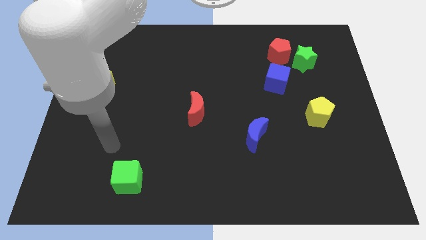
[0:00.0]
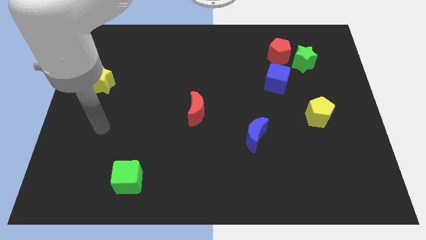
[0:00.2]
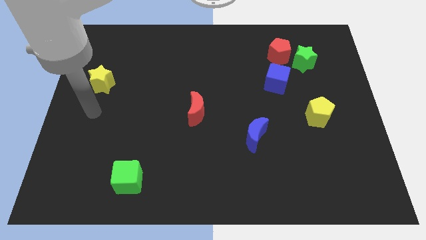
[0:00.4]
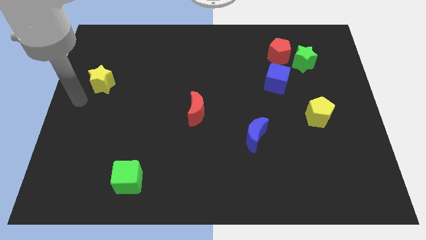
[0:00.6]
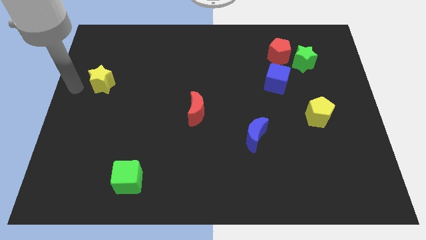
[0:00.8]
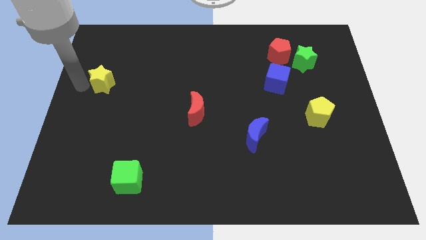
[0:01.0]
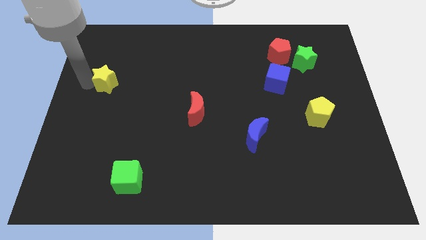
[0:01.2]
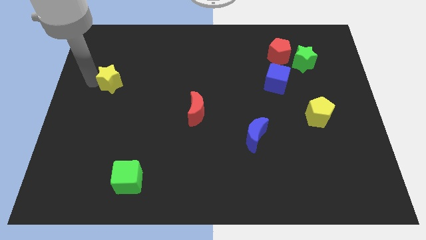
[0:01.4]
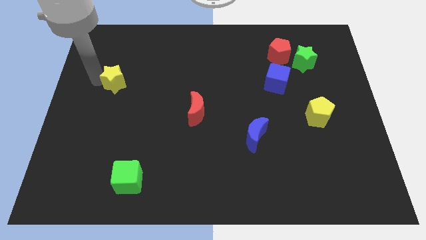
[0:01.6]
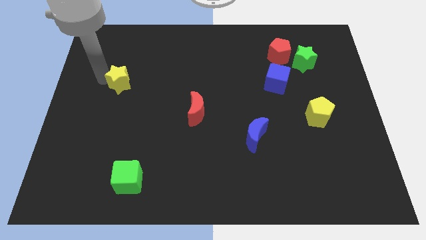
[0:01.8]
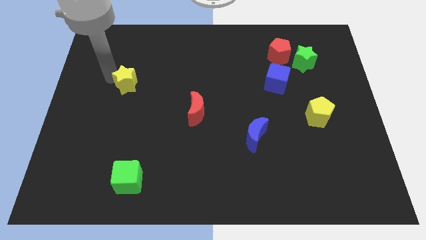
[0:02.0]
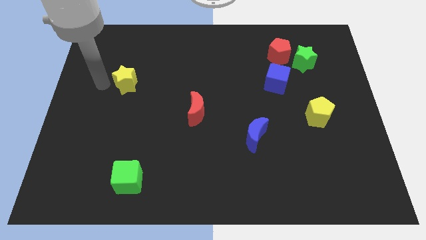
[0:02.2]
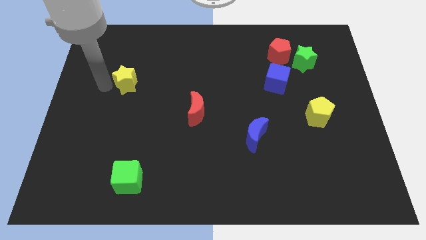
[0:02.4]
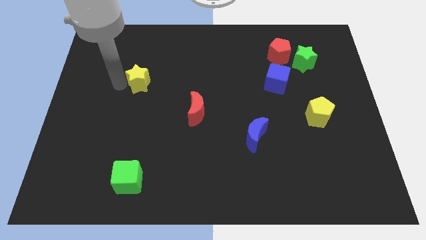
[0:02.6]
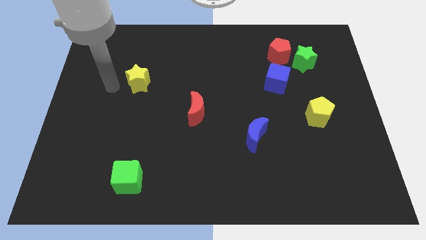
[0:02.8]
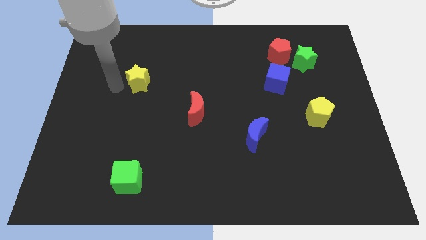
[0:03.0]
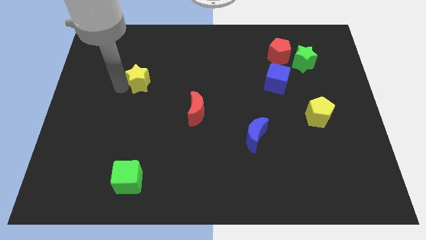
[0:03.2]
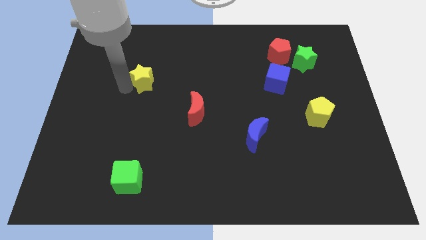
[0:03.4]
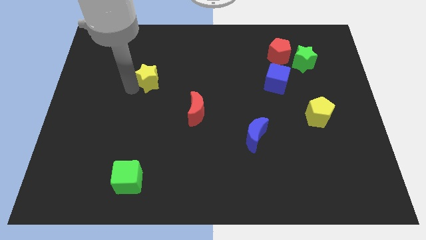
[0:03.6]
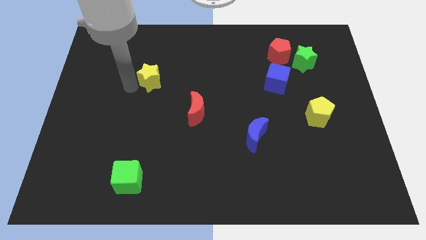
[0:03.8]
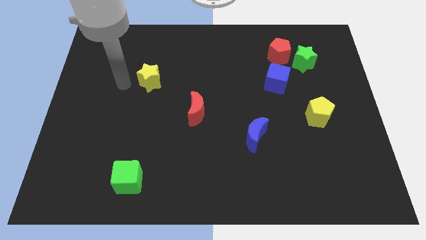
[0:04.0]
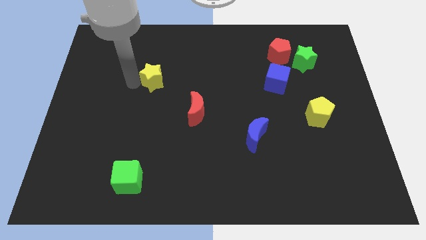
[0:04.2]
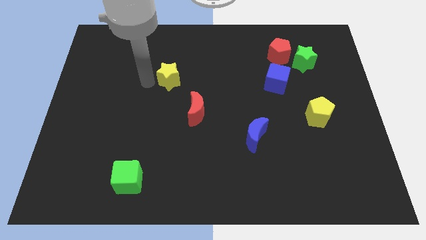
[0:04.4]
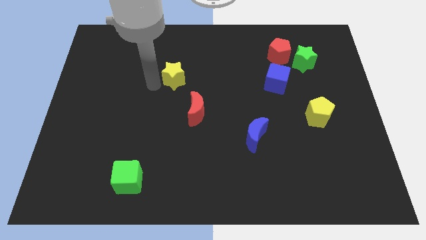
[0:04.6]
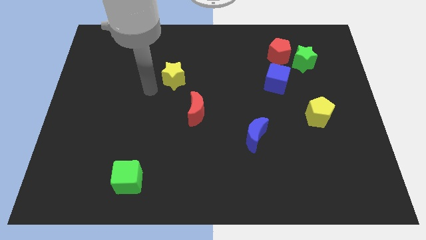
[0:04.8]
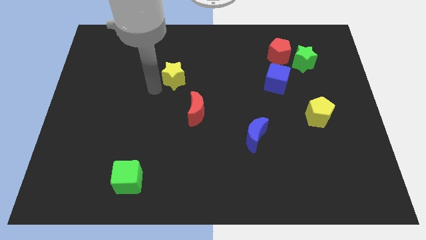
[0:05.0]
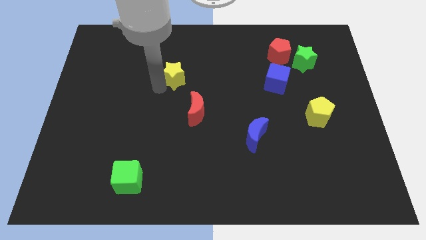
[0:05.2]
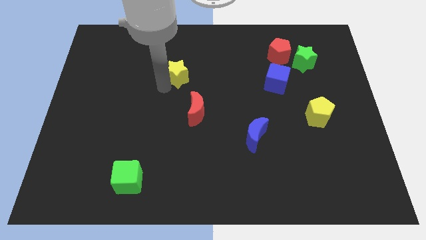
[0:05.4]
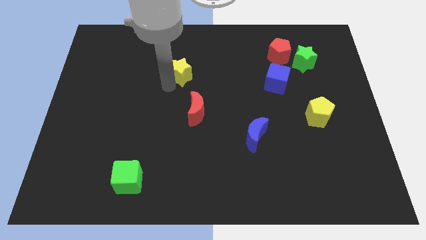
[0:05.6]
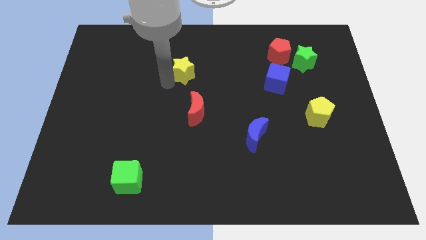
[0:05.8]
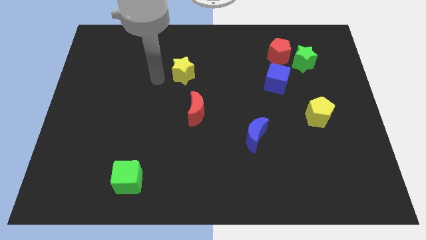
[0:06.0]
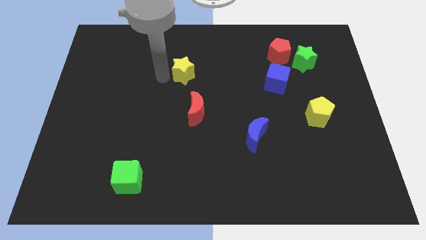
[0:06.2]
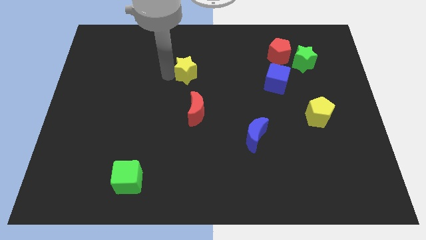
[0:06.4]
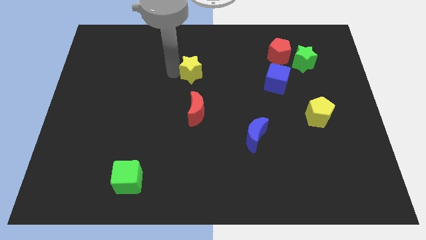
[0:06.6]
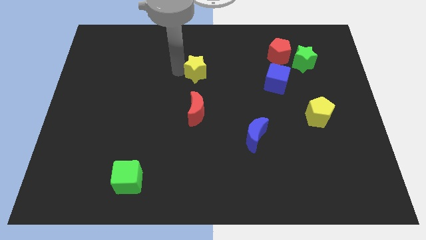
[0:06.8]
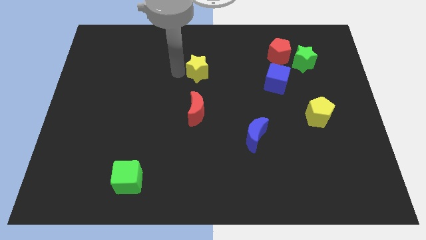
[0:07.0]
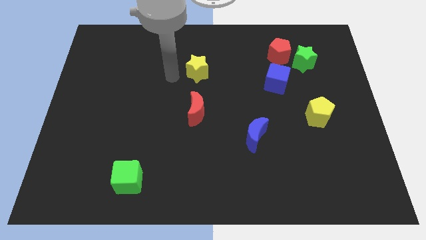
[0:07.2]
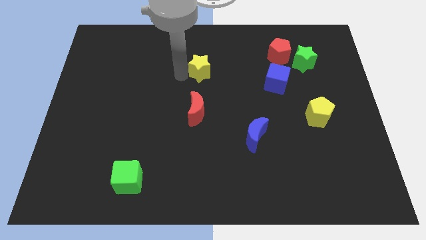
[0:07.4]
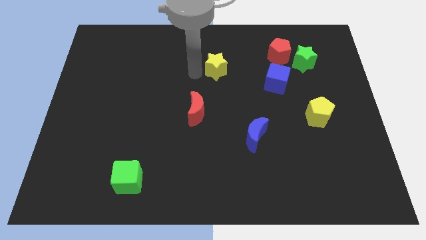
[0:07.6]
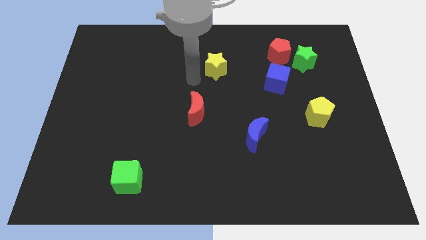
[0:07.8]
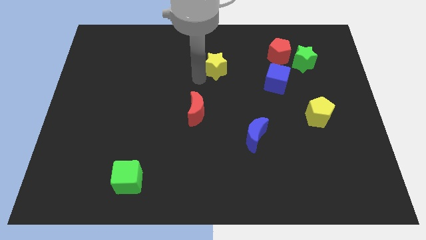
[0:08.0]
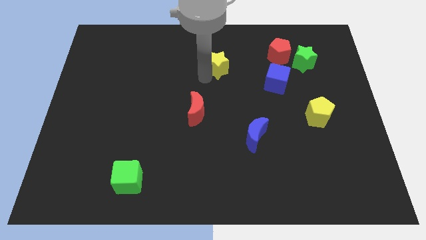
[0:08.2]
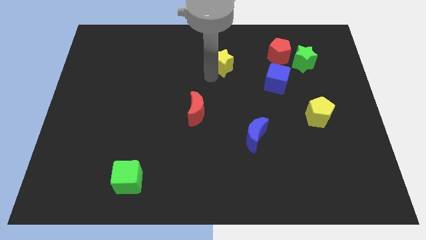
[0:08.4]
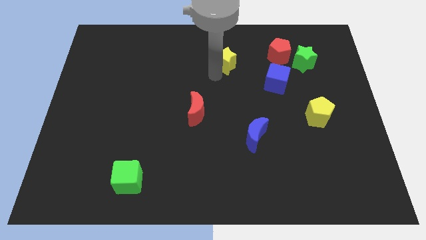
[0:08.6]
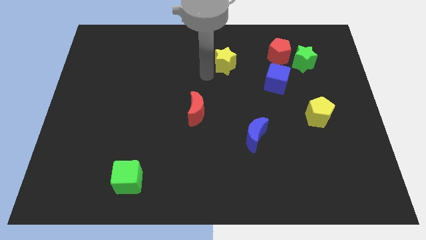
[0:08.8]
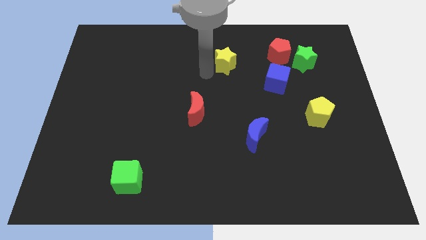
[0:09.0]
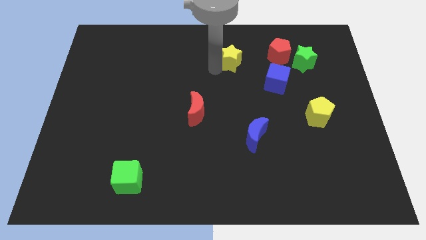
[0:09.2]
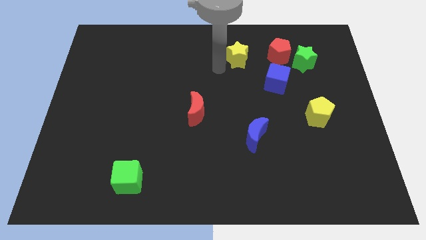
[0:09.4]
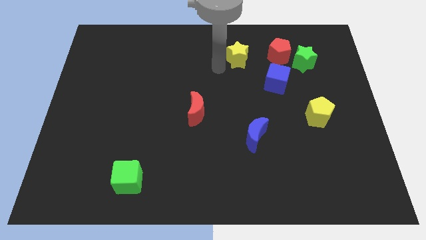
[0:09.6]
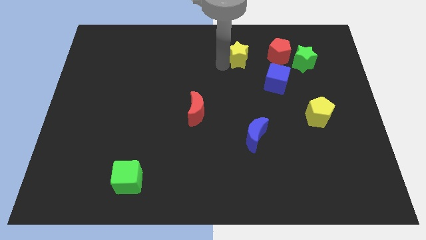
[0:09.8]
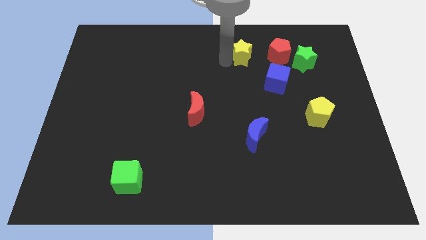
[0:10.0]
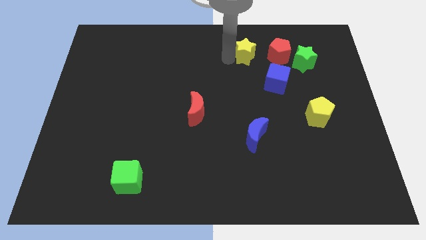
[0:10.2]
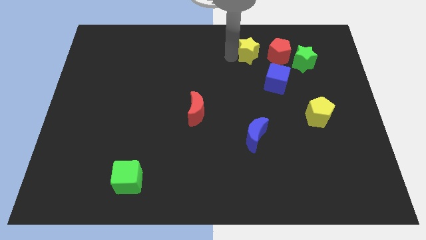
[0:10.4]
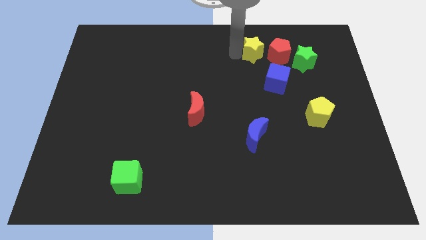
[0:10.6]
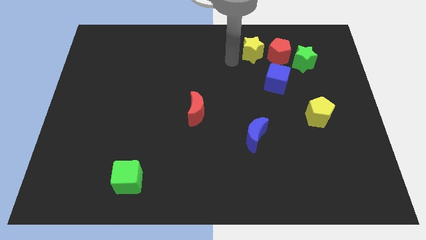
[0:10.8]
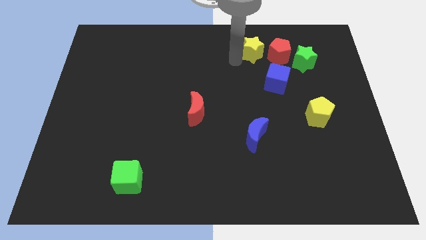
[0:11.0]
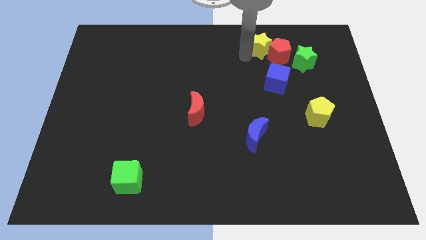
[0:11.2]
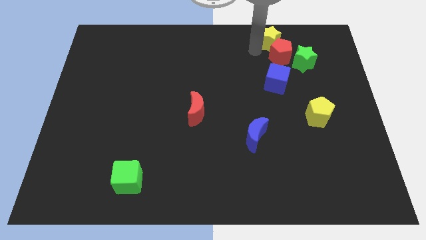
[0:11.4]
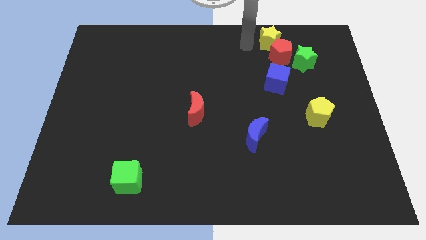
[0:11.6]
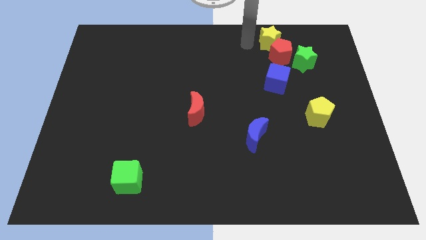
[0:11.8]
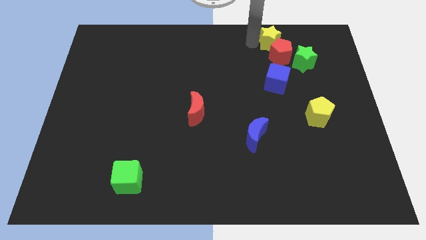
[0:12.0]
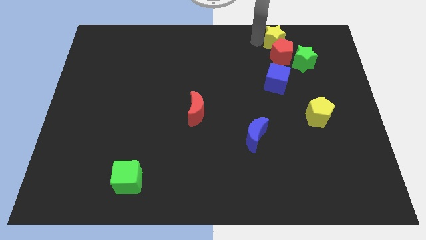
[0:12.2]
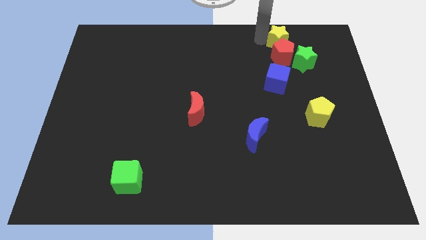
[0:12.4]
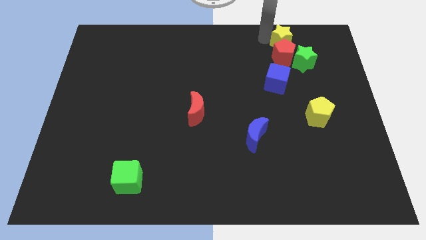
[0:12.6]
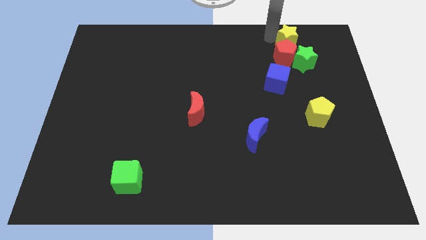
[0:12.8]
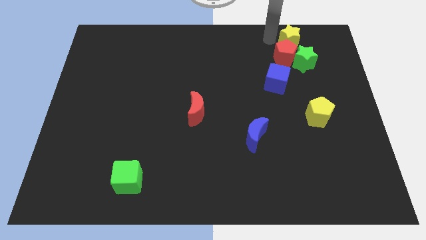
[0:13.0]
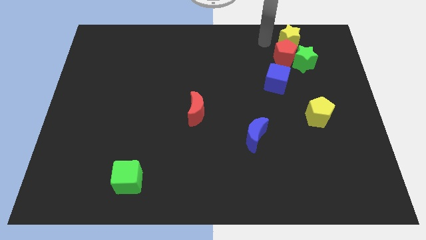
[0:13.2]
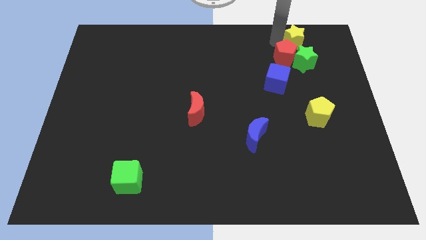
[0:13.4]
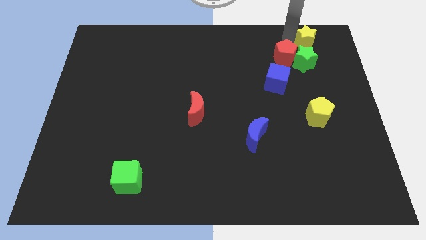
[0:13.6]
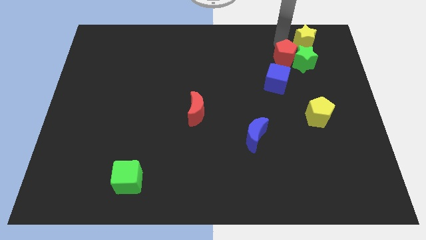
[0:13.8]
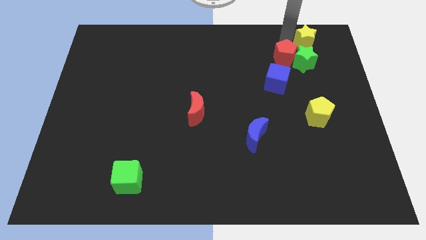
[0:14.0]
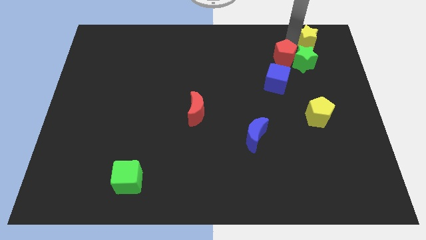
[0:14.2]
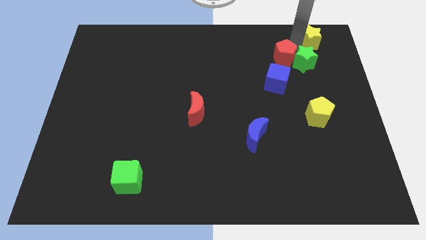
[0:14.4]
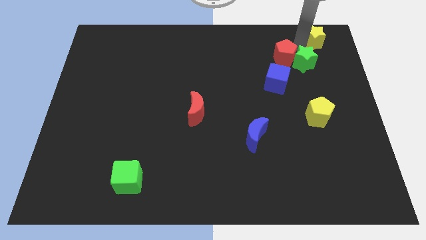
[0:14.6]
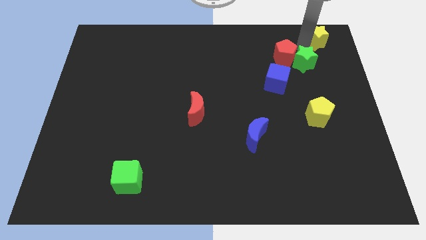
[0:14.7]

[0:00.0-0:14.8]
slide the yellow star to the top right
